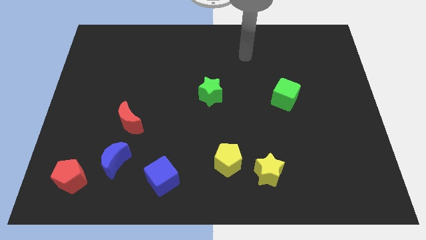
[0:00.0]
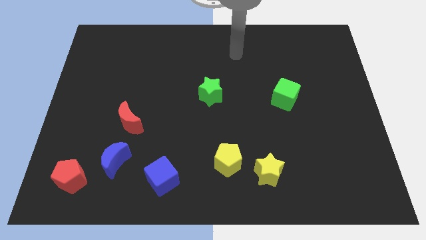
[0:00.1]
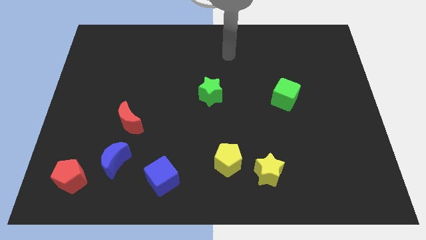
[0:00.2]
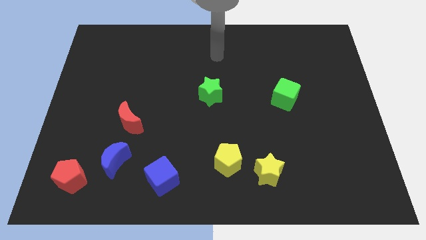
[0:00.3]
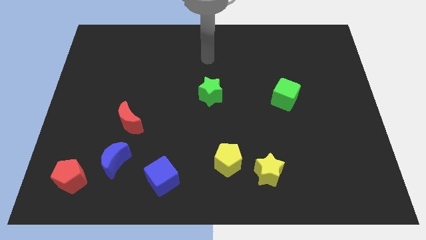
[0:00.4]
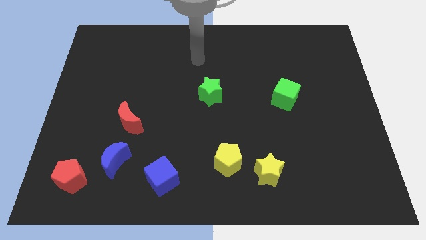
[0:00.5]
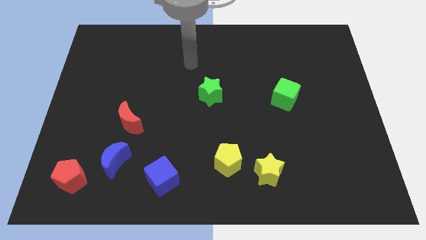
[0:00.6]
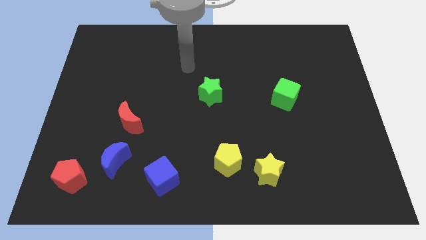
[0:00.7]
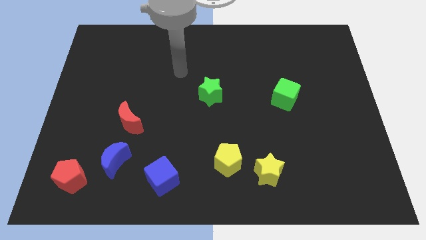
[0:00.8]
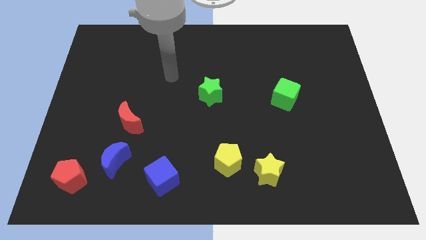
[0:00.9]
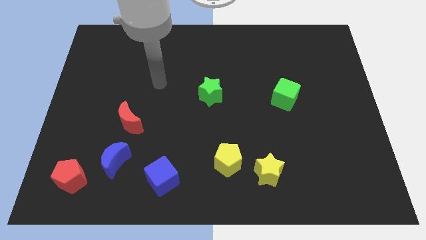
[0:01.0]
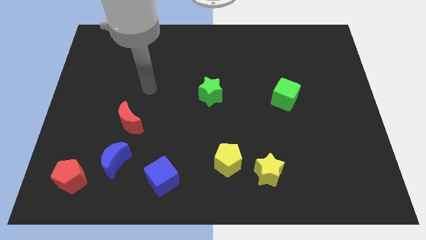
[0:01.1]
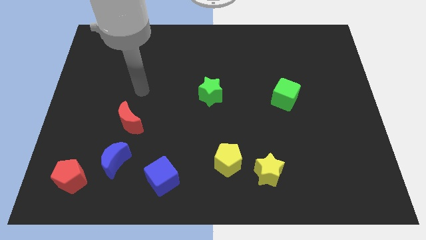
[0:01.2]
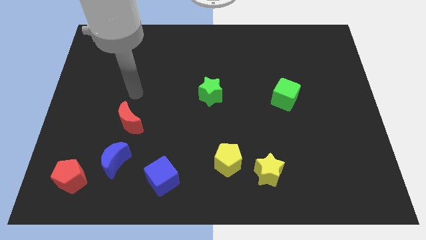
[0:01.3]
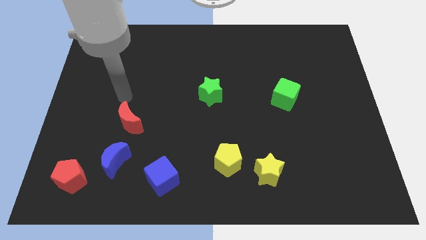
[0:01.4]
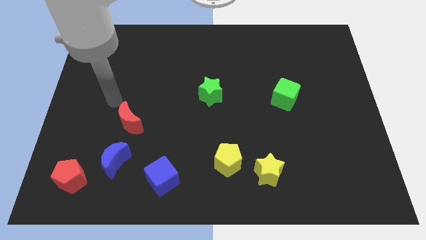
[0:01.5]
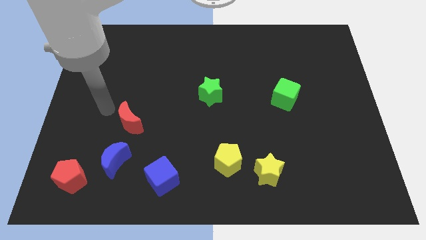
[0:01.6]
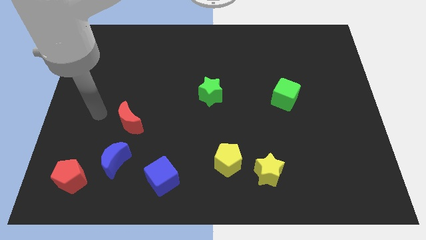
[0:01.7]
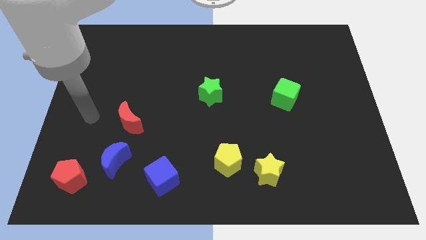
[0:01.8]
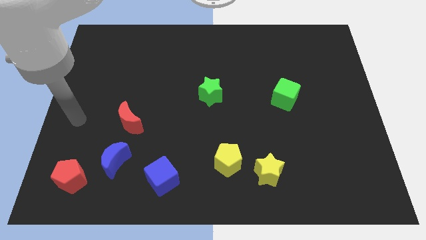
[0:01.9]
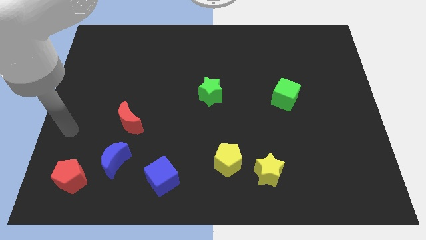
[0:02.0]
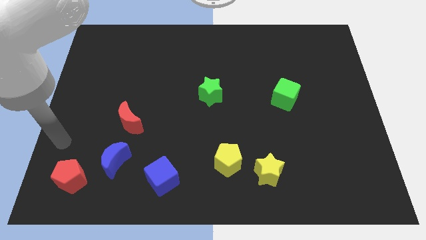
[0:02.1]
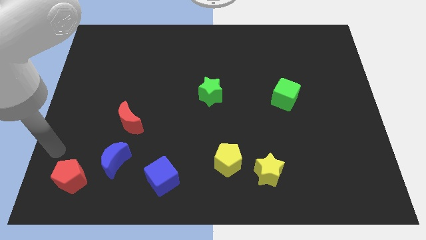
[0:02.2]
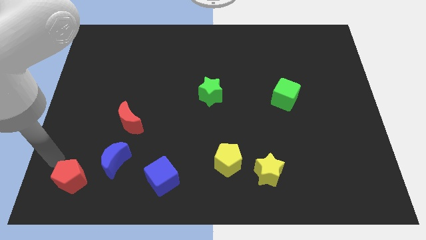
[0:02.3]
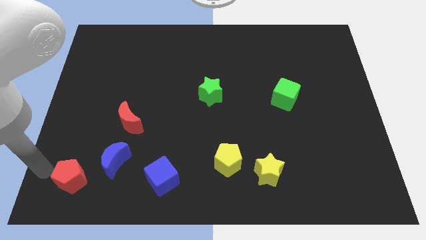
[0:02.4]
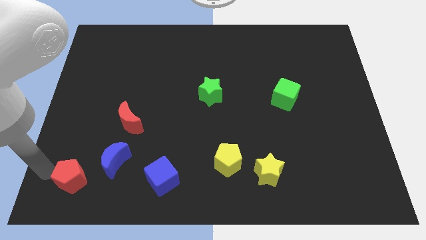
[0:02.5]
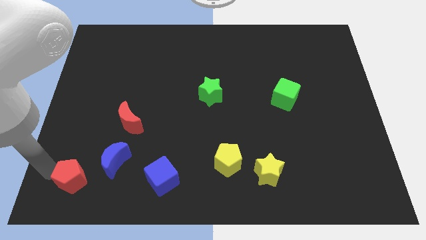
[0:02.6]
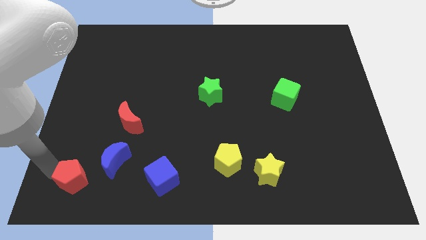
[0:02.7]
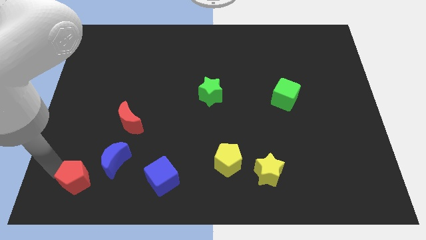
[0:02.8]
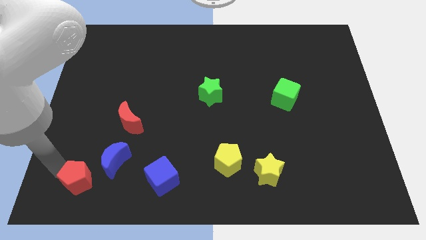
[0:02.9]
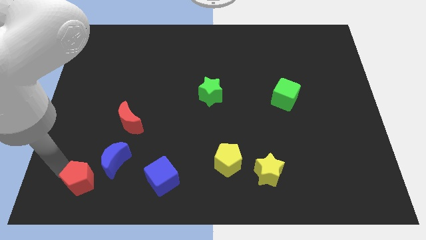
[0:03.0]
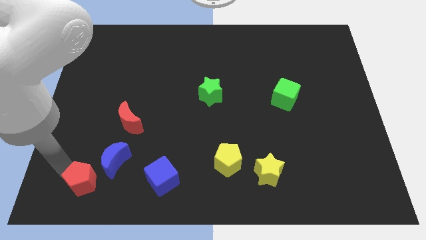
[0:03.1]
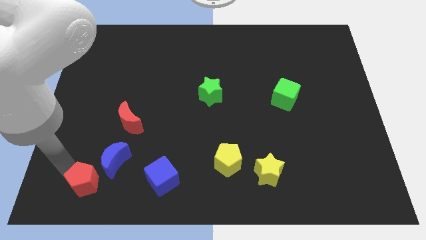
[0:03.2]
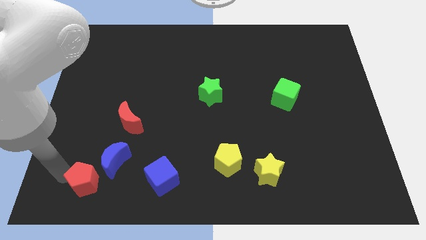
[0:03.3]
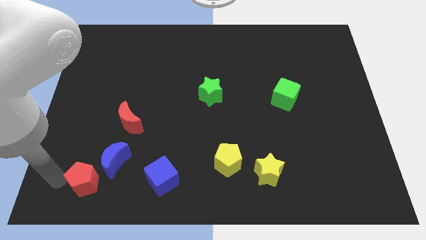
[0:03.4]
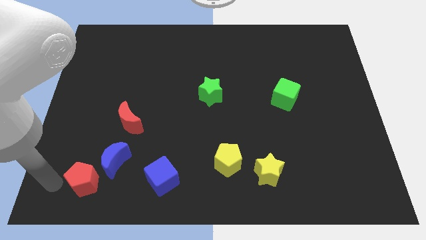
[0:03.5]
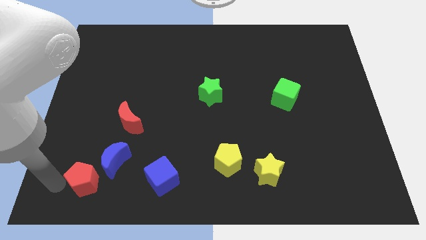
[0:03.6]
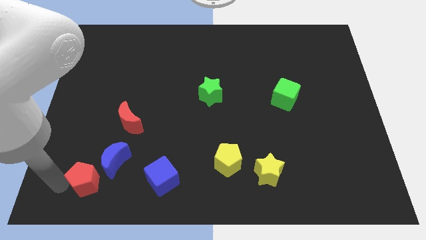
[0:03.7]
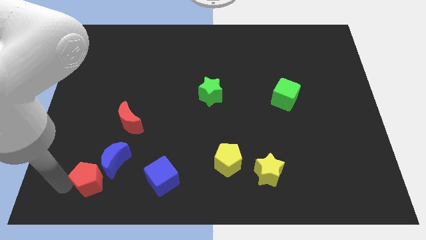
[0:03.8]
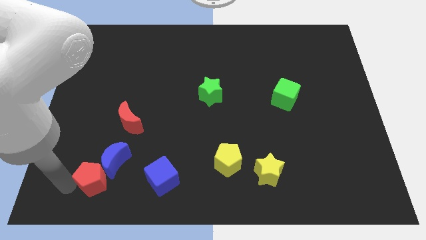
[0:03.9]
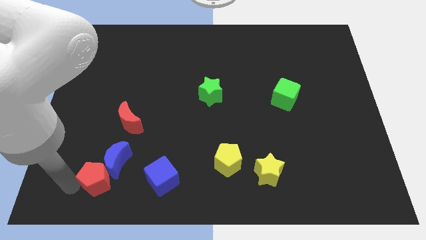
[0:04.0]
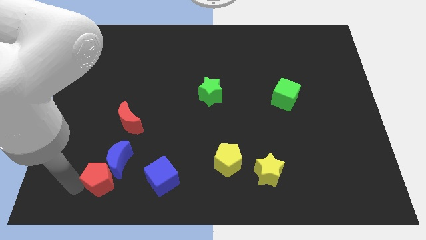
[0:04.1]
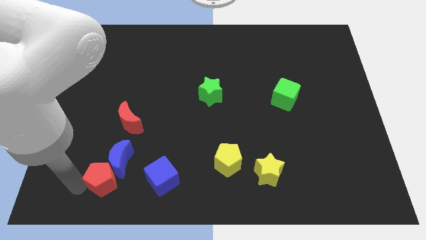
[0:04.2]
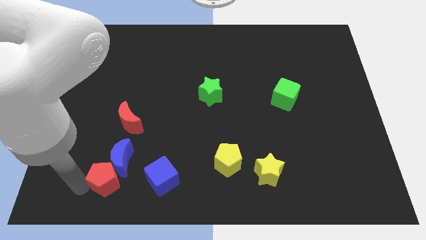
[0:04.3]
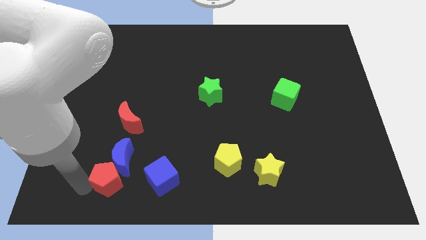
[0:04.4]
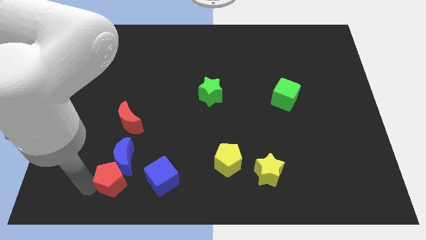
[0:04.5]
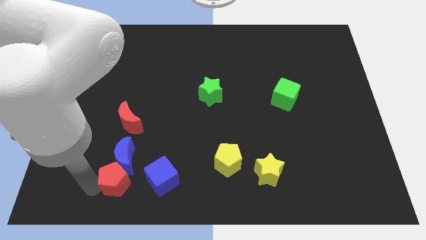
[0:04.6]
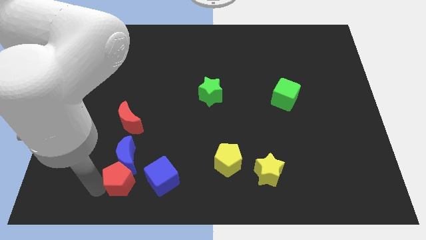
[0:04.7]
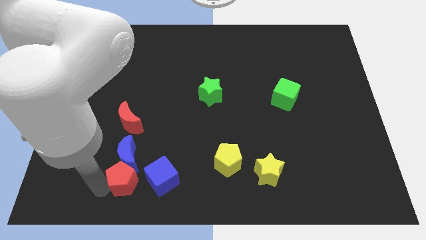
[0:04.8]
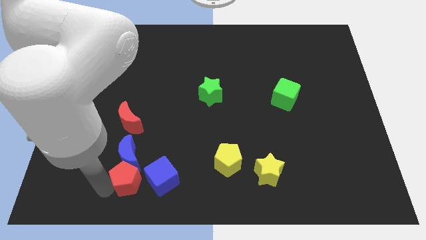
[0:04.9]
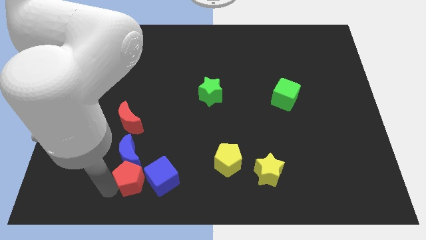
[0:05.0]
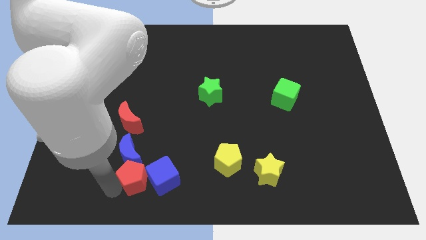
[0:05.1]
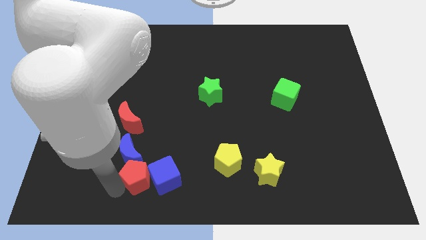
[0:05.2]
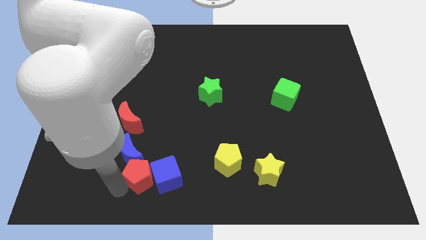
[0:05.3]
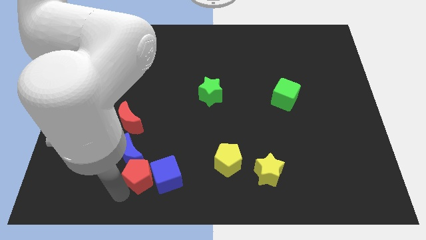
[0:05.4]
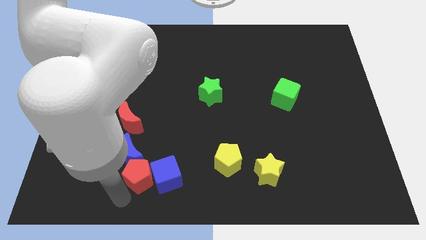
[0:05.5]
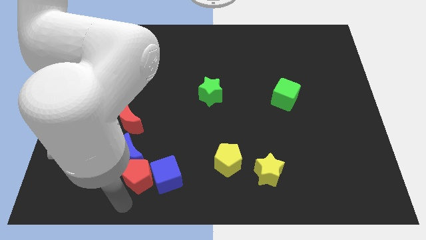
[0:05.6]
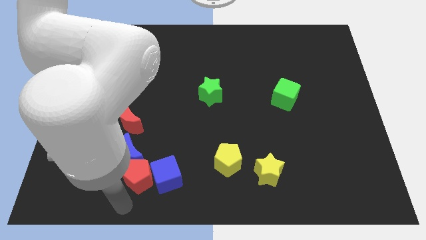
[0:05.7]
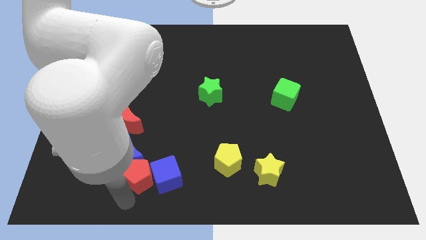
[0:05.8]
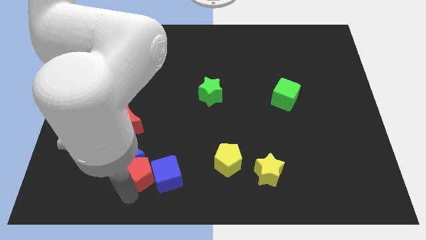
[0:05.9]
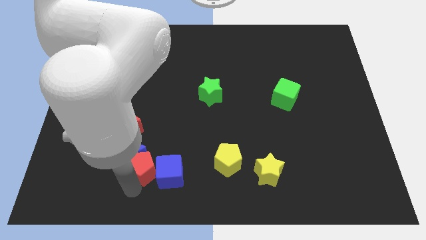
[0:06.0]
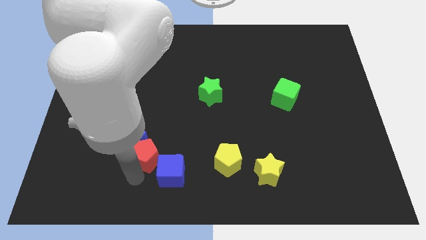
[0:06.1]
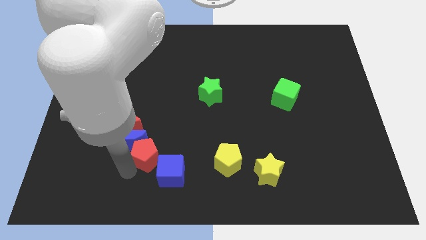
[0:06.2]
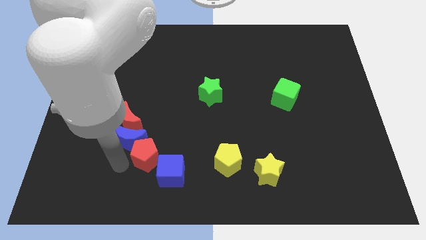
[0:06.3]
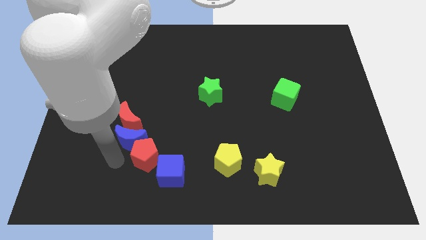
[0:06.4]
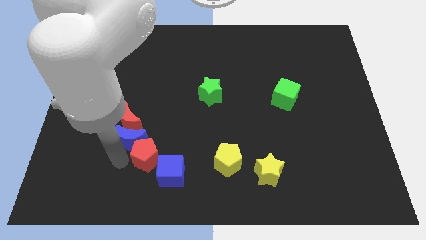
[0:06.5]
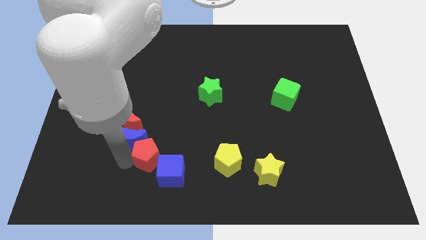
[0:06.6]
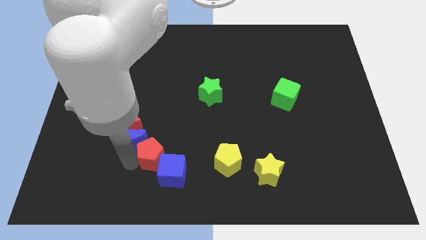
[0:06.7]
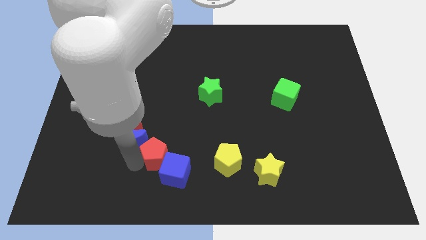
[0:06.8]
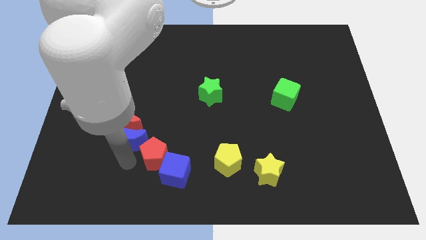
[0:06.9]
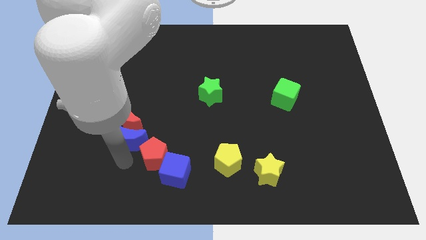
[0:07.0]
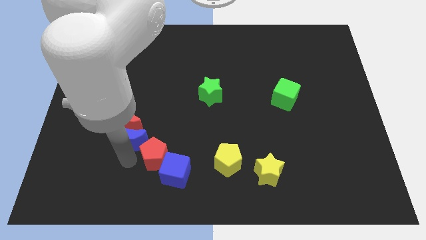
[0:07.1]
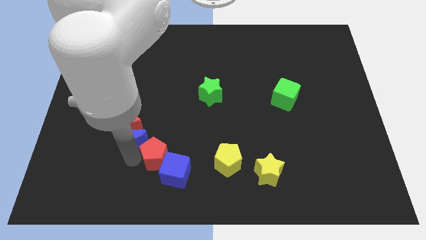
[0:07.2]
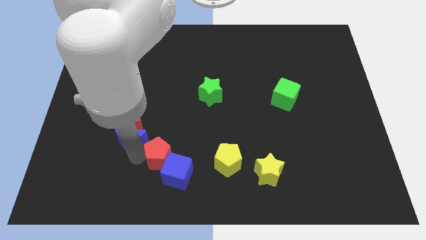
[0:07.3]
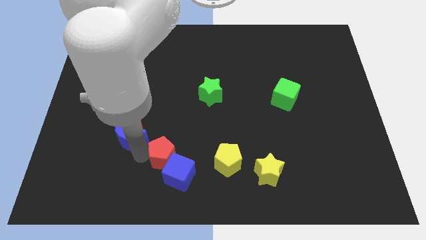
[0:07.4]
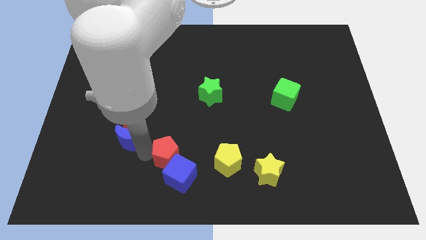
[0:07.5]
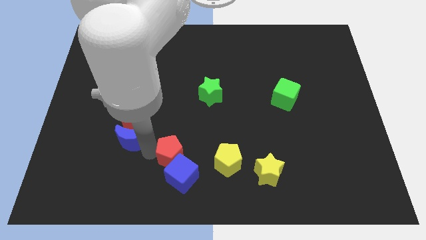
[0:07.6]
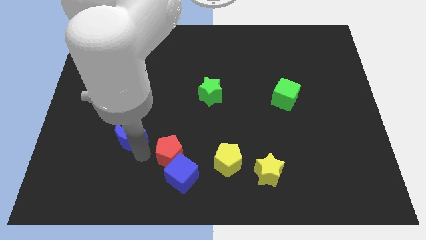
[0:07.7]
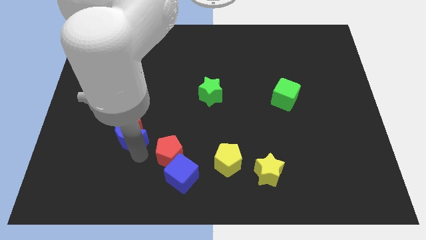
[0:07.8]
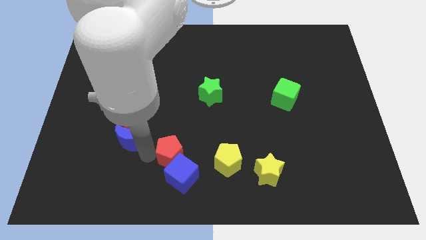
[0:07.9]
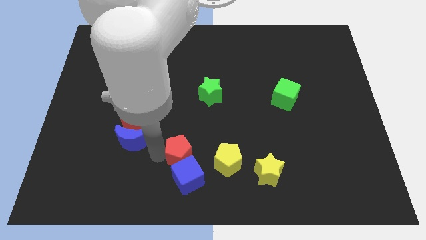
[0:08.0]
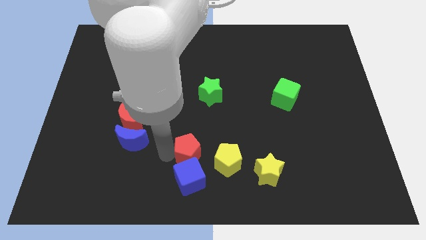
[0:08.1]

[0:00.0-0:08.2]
push the red pentagon to the top right of the blue cube
